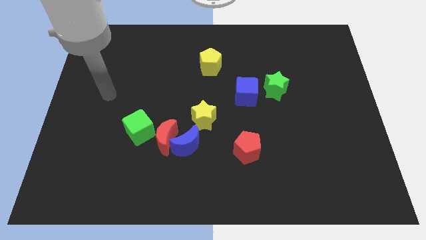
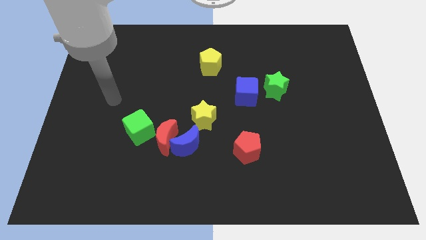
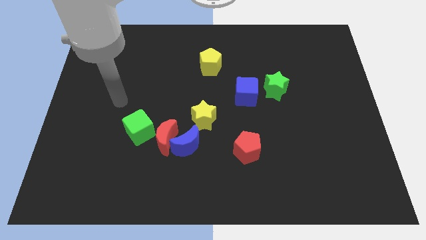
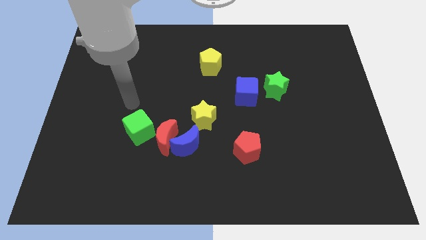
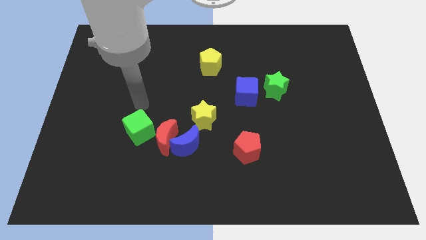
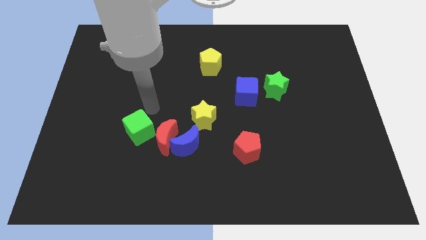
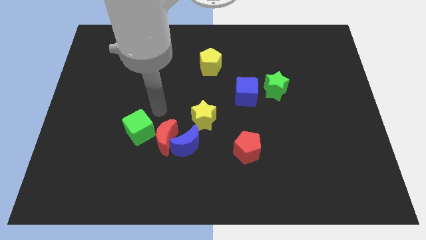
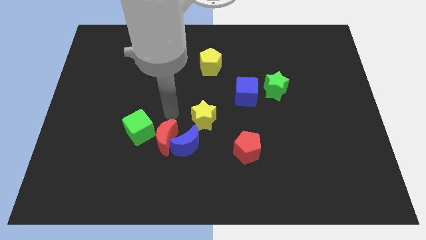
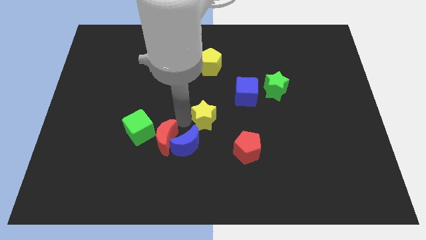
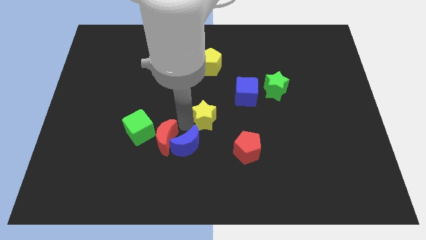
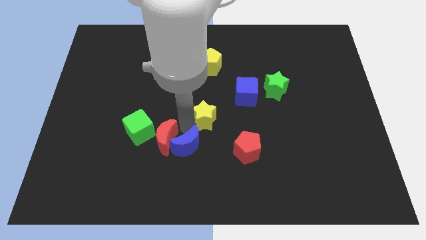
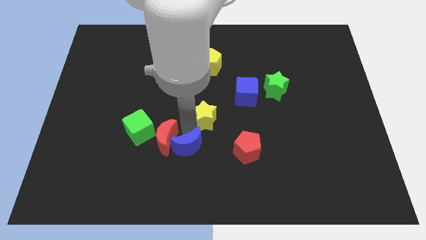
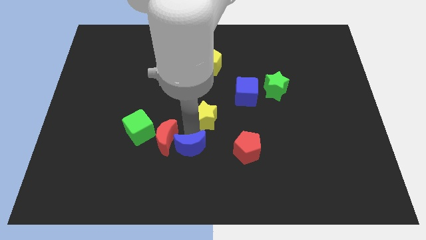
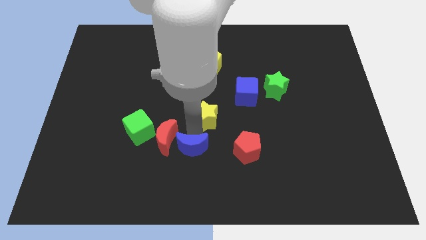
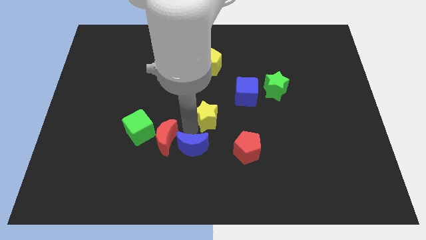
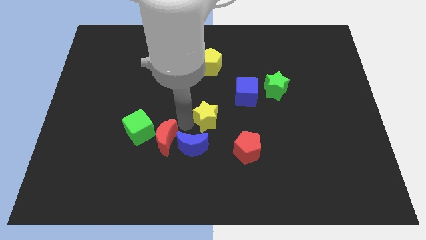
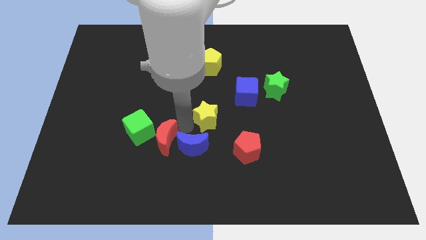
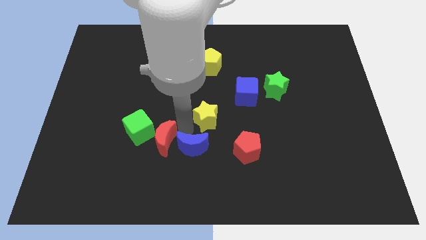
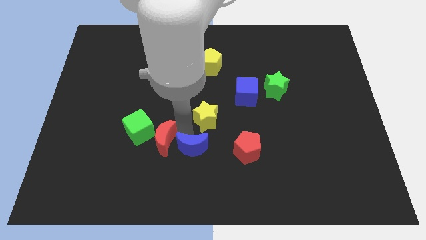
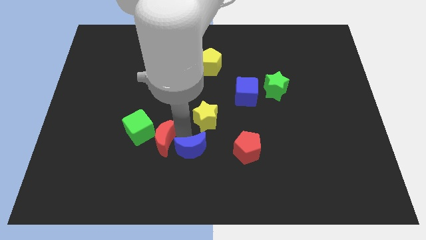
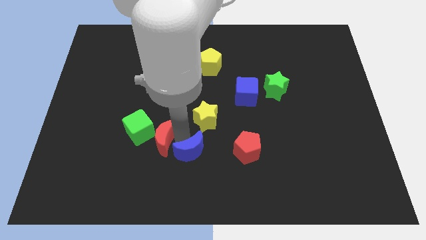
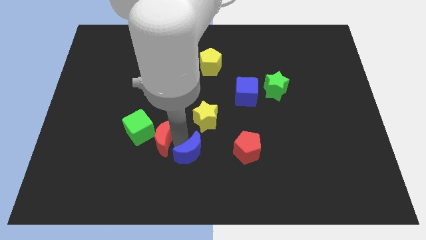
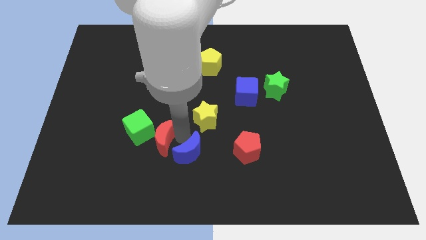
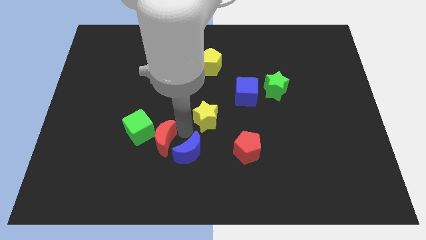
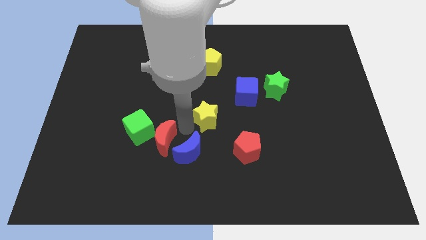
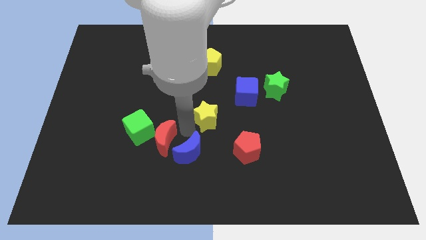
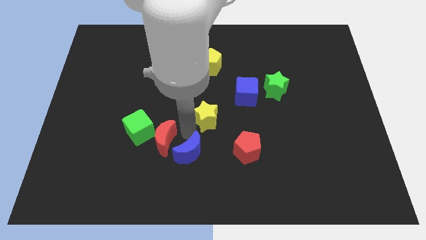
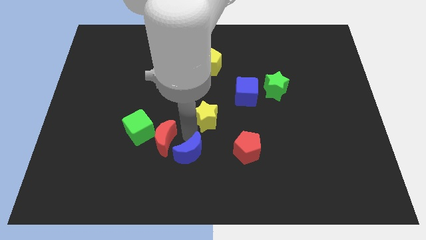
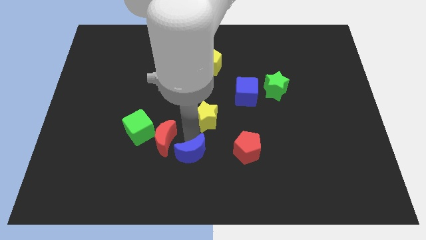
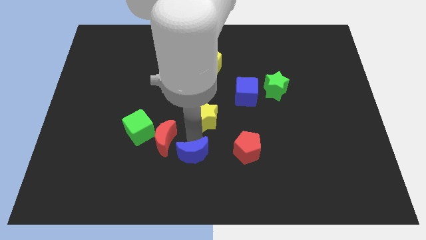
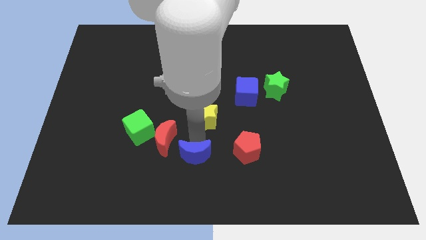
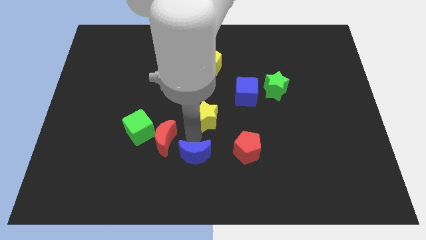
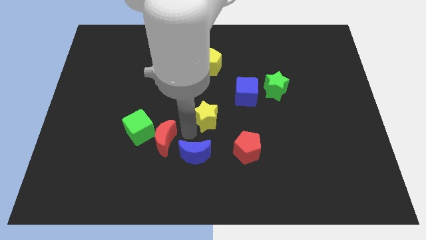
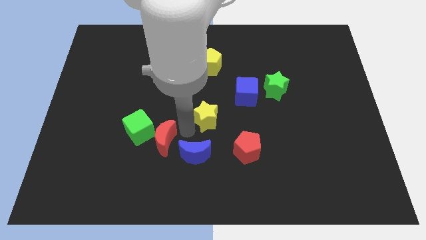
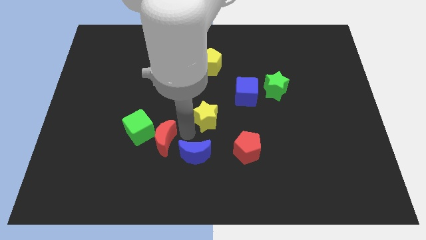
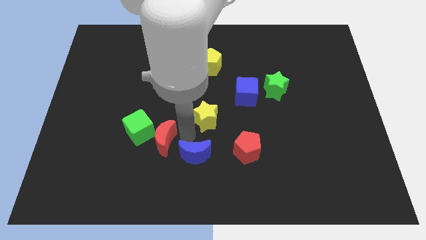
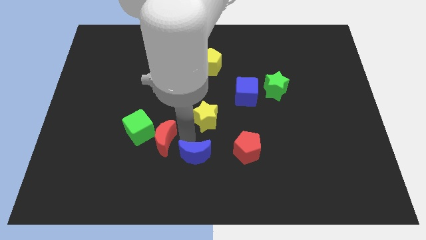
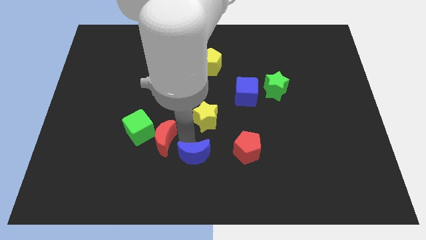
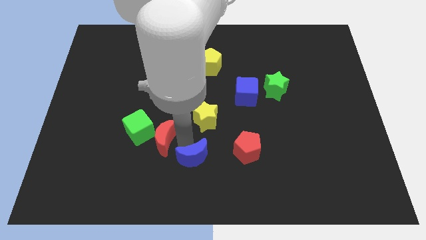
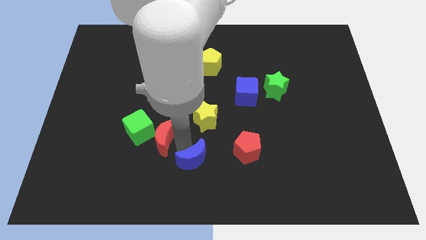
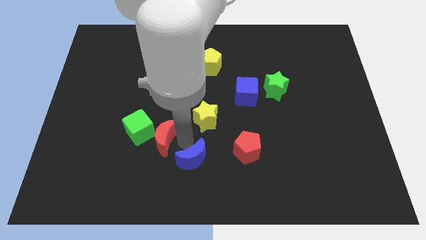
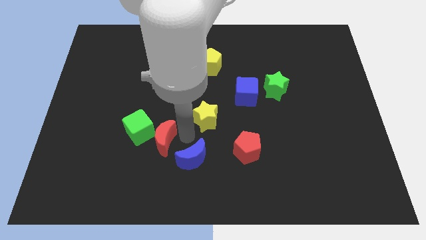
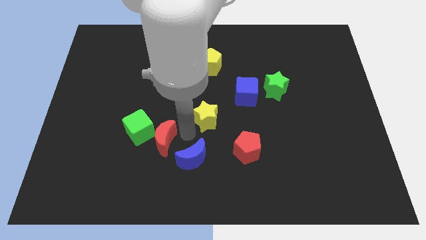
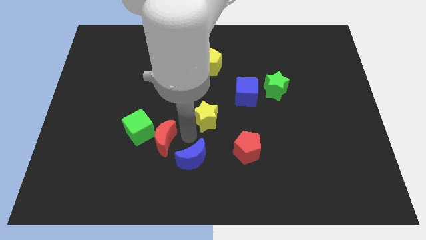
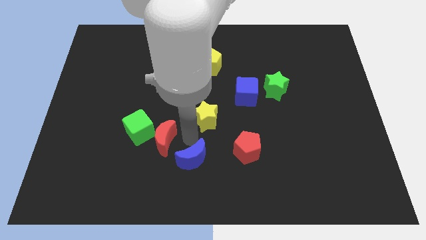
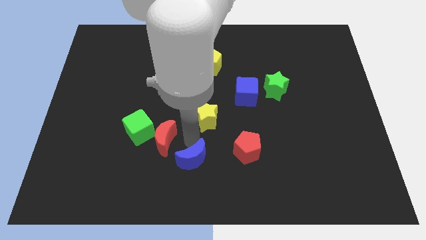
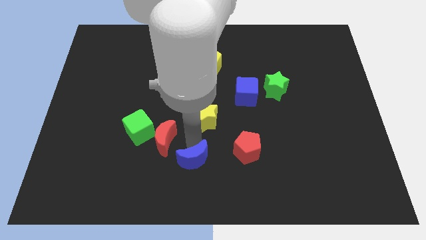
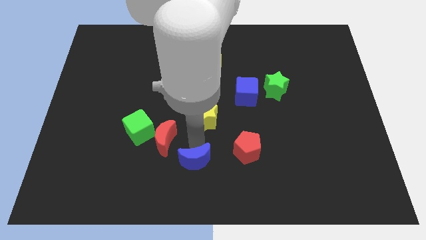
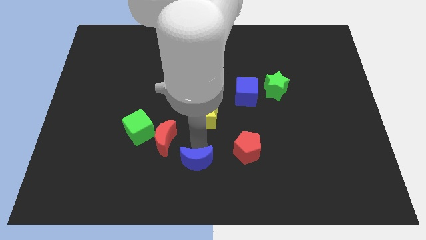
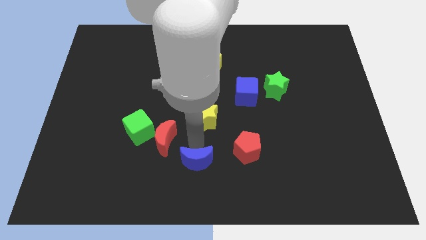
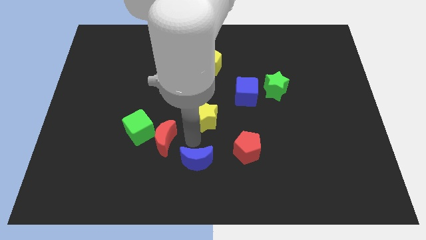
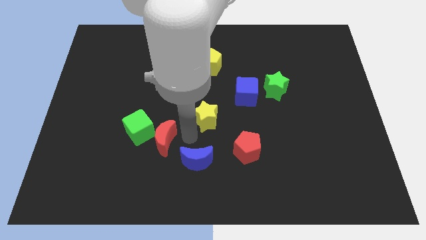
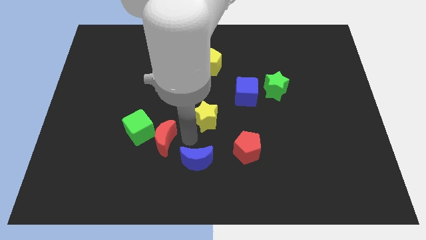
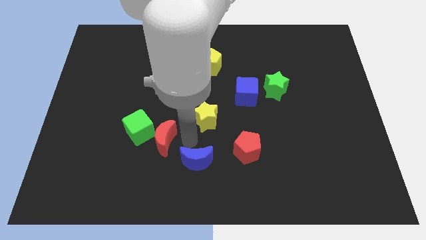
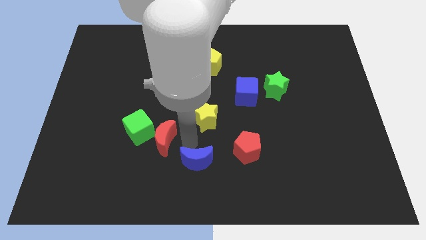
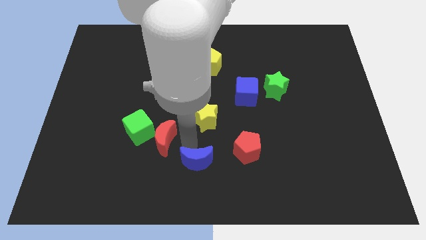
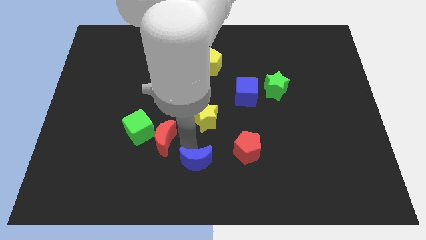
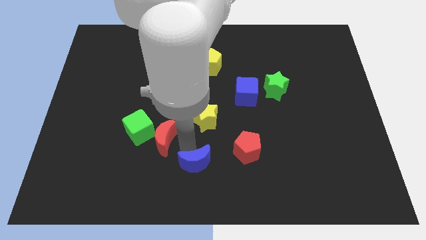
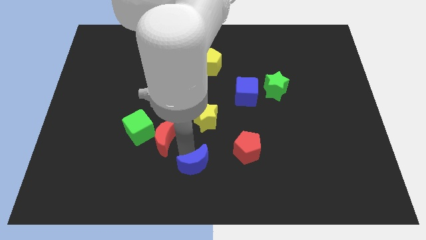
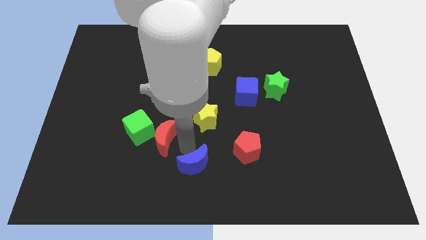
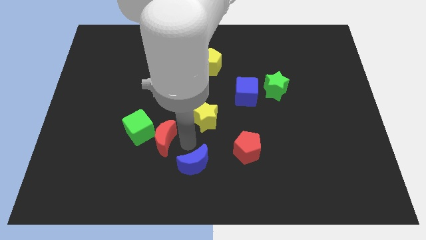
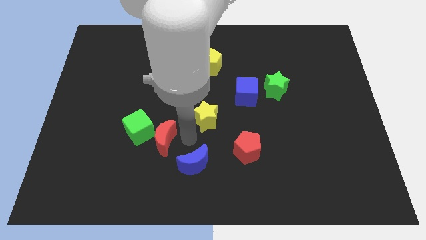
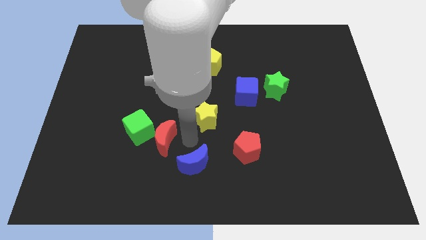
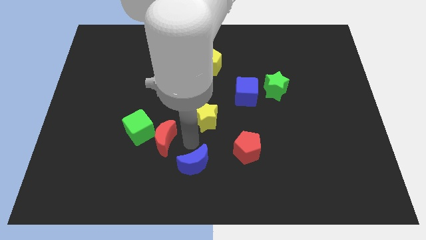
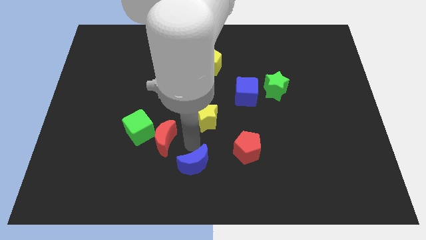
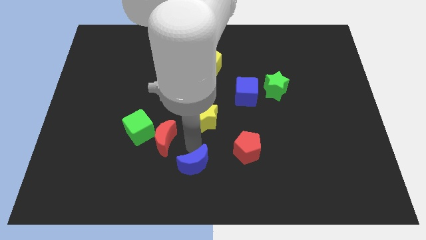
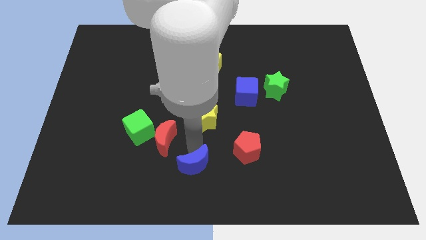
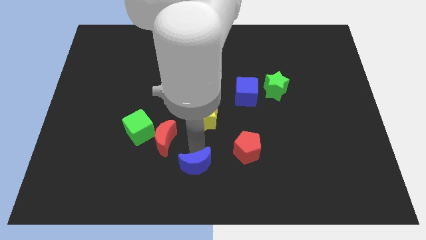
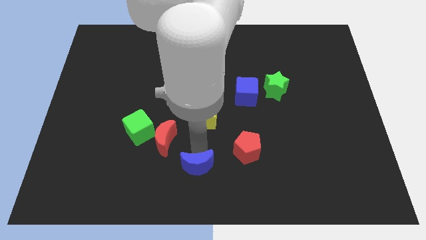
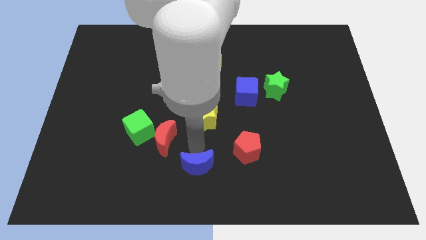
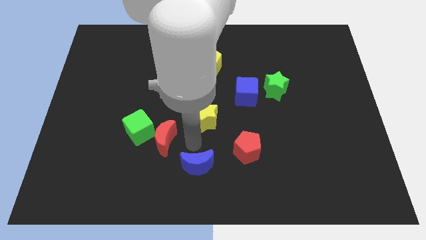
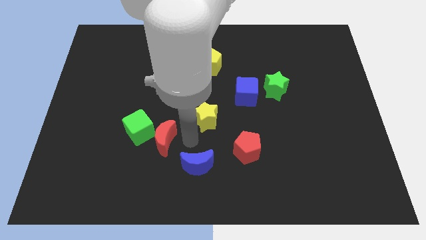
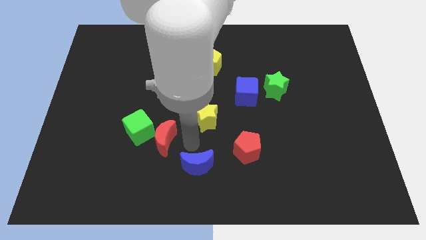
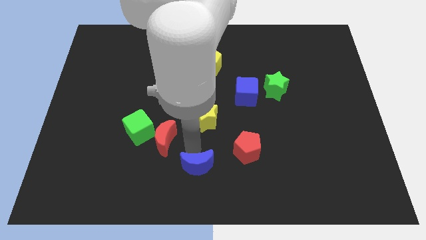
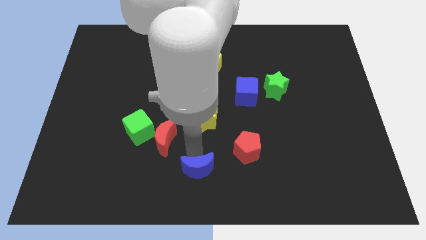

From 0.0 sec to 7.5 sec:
separate the blue moon from the red moon and yellow star

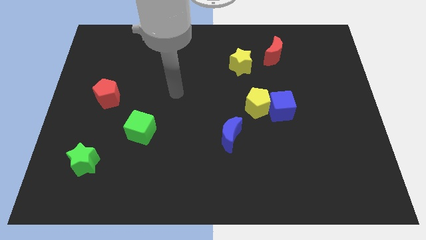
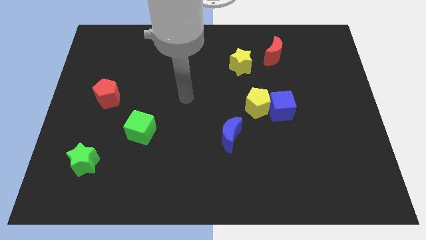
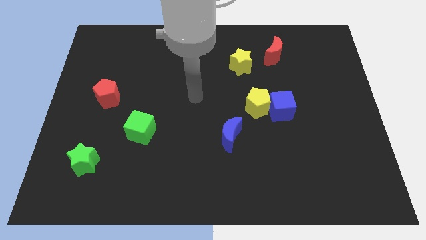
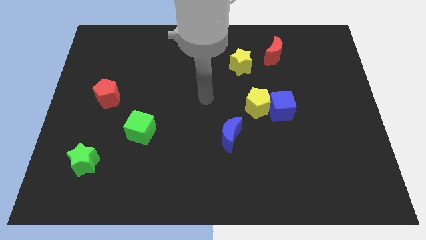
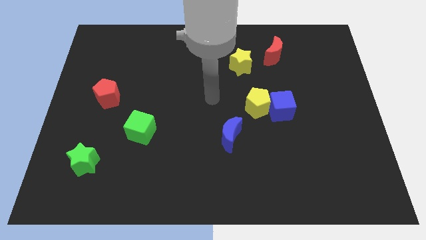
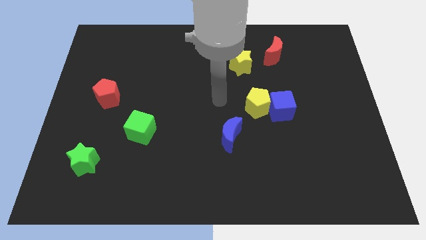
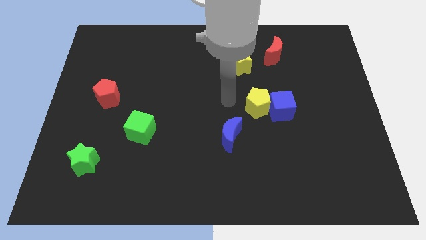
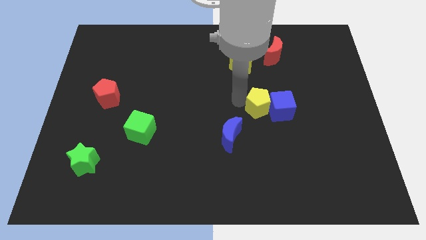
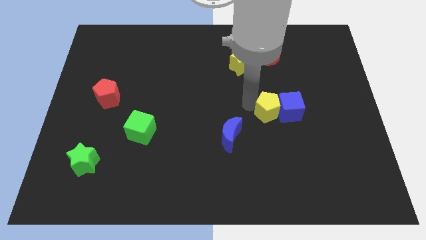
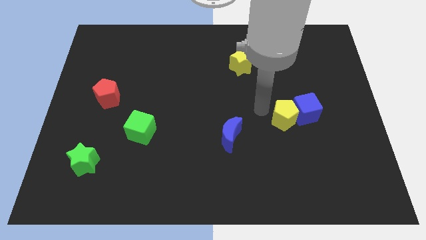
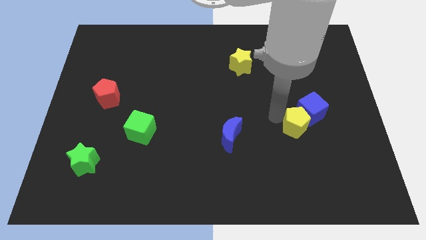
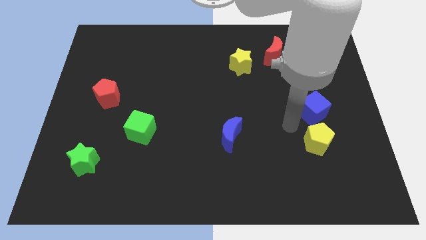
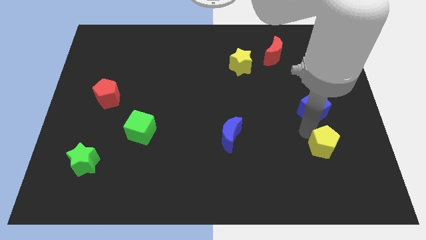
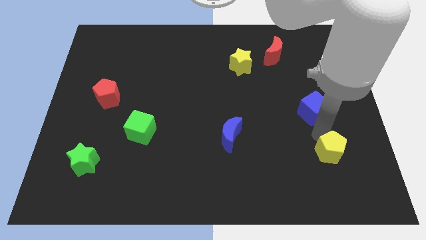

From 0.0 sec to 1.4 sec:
separate the blue cube from the yellow pentagon

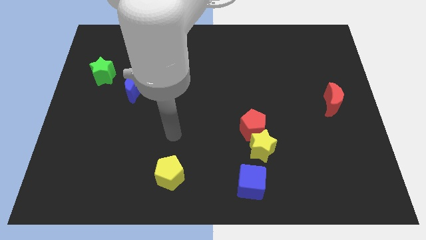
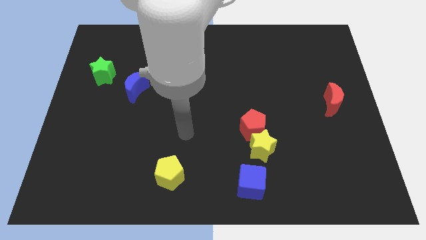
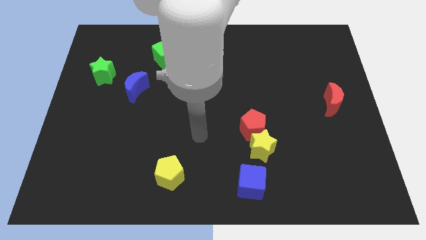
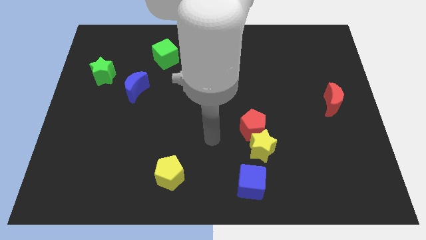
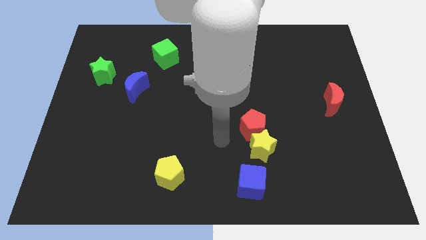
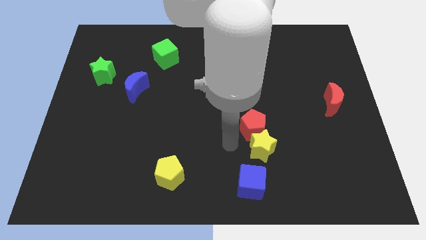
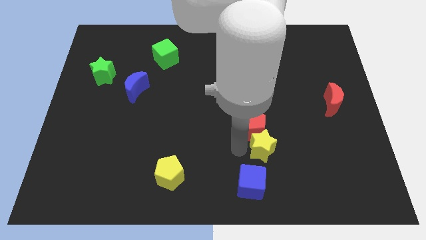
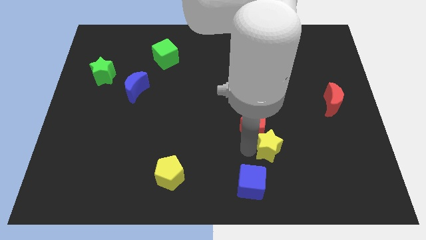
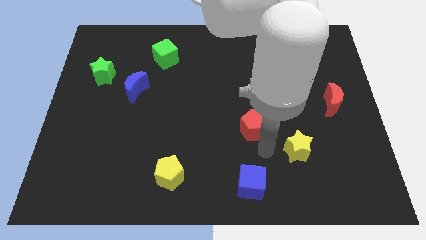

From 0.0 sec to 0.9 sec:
separate the red pentagon from the yellow star
